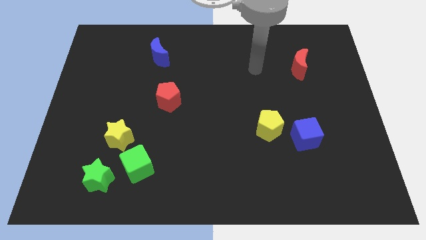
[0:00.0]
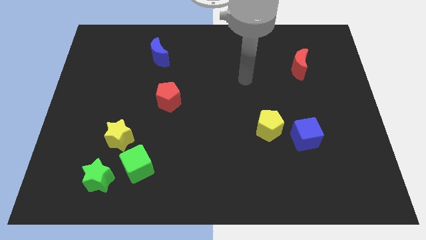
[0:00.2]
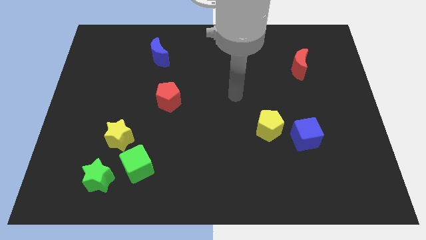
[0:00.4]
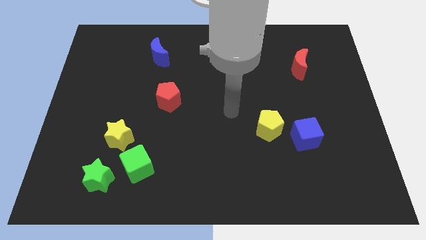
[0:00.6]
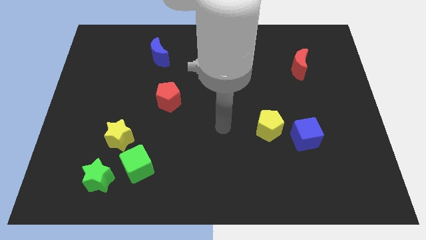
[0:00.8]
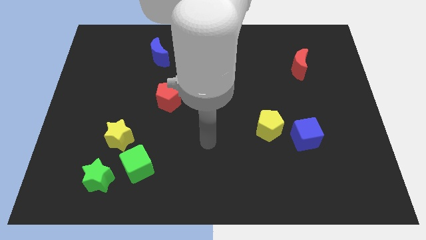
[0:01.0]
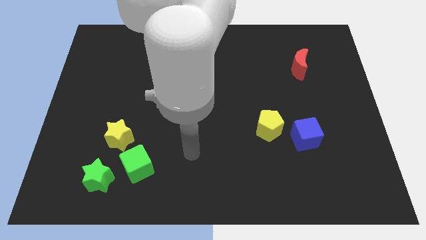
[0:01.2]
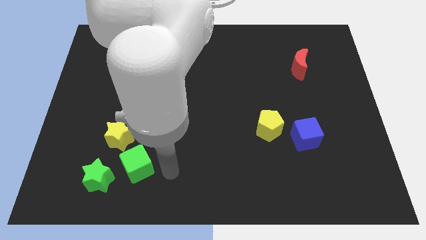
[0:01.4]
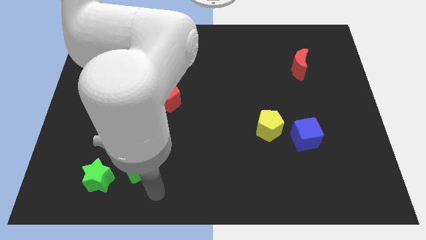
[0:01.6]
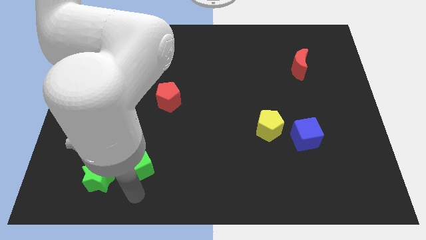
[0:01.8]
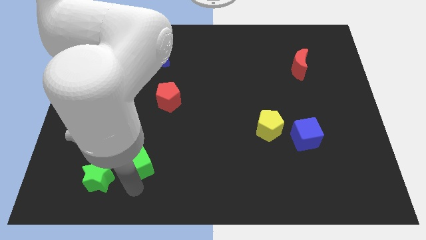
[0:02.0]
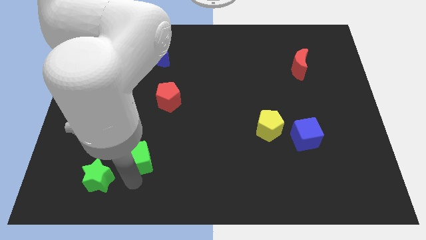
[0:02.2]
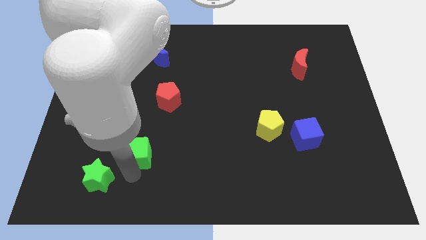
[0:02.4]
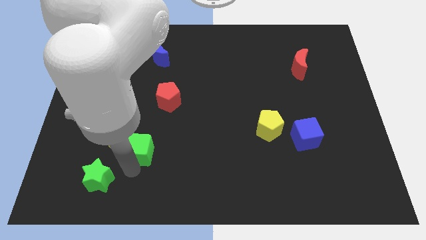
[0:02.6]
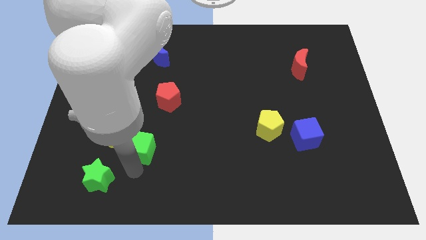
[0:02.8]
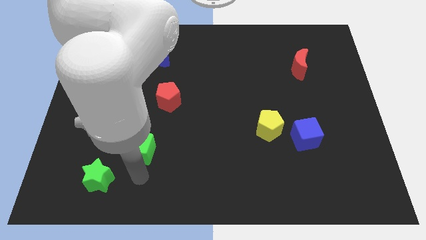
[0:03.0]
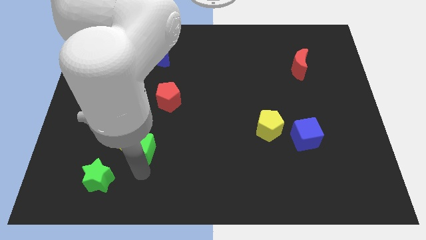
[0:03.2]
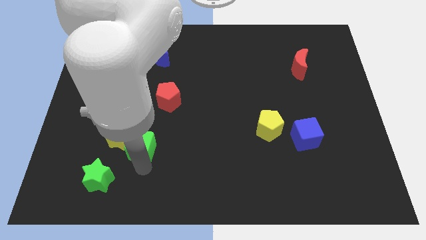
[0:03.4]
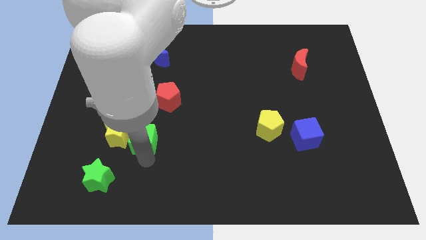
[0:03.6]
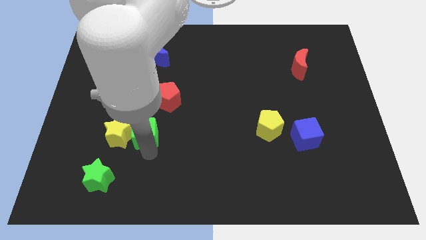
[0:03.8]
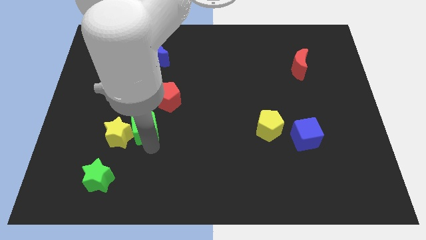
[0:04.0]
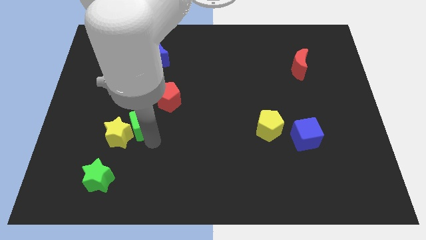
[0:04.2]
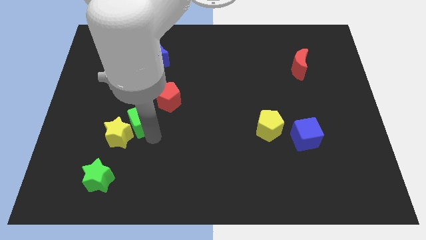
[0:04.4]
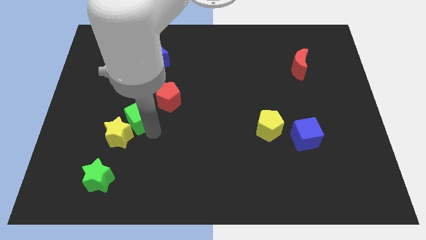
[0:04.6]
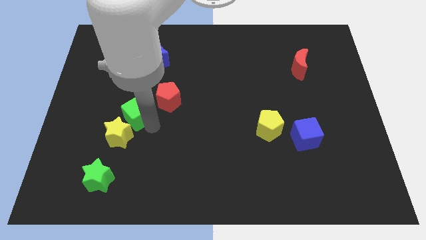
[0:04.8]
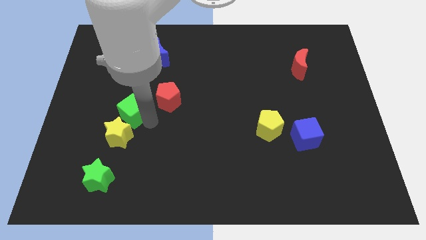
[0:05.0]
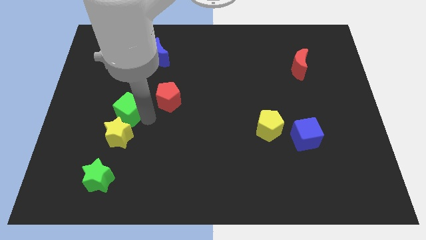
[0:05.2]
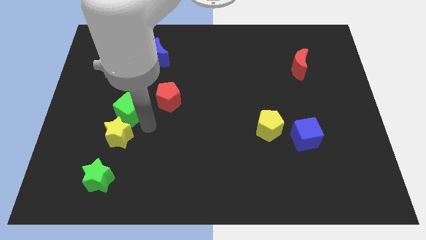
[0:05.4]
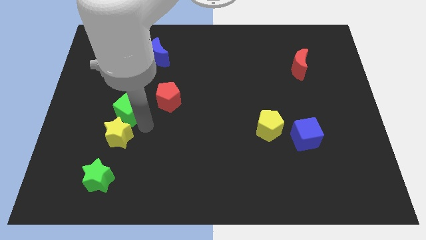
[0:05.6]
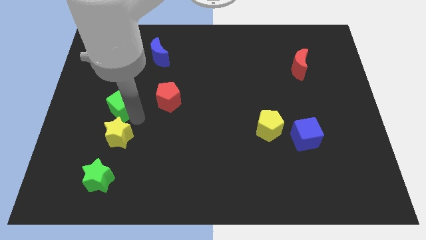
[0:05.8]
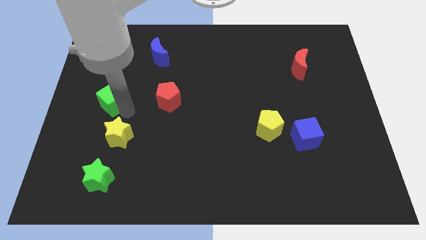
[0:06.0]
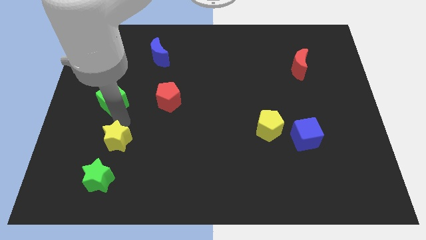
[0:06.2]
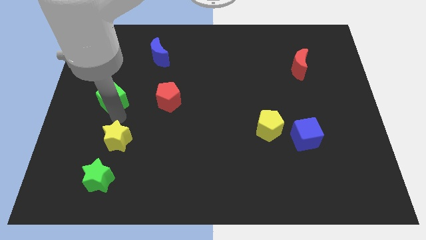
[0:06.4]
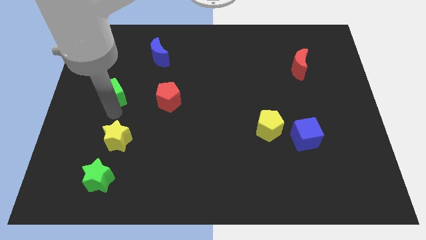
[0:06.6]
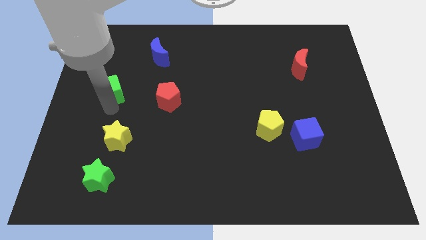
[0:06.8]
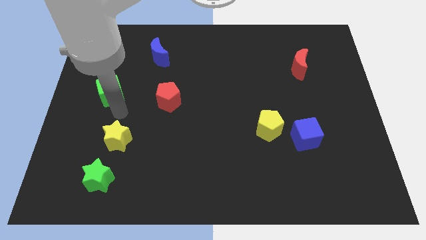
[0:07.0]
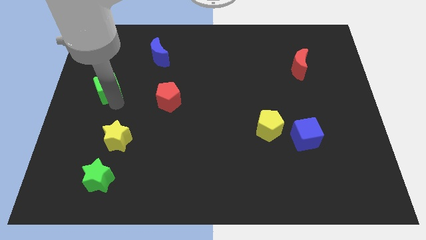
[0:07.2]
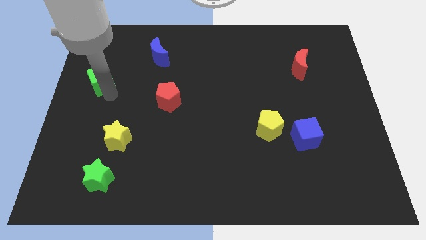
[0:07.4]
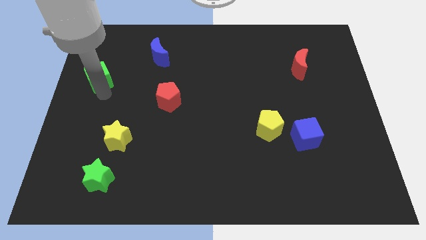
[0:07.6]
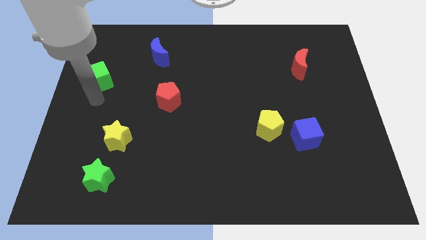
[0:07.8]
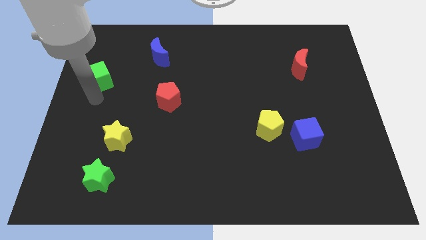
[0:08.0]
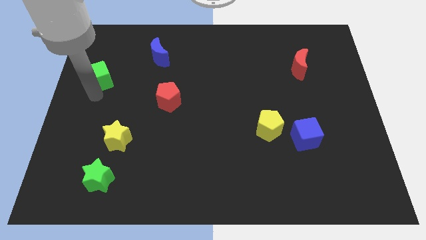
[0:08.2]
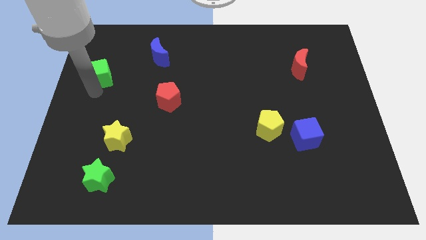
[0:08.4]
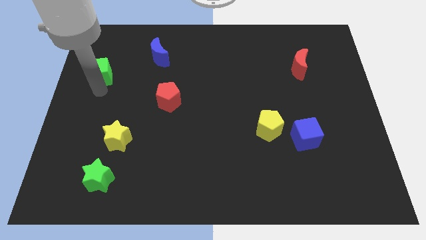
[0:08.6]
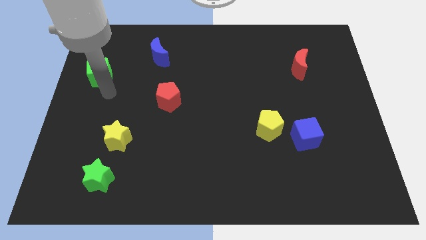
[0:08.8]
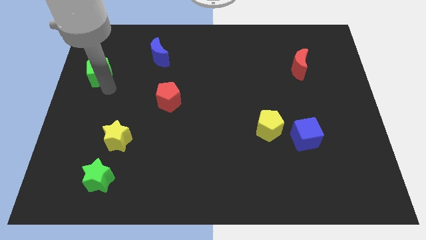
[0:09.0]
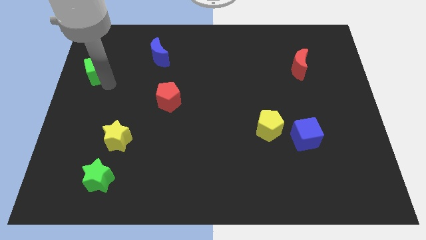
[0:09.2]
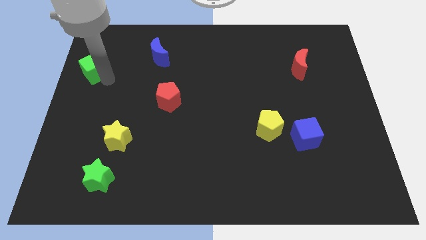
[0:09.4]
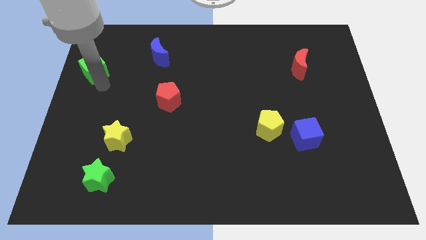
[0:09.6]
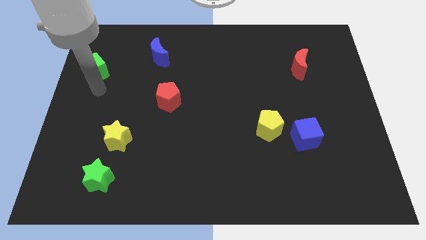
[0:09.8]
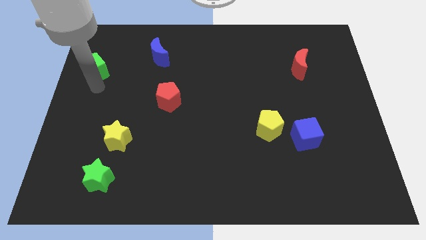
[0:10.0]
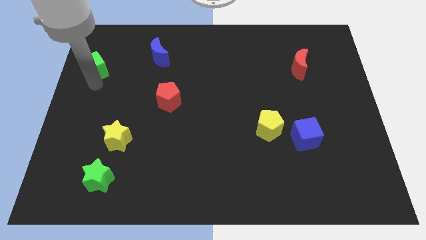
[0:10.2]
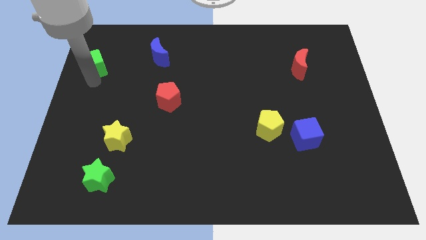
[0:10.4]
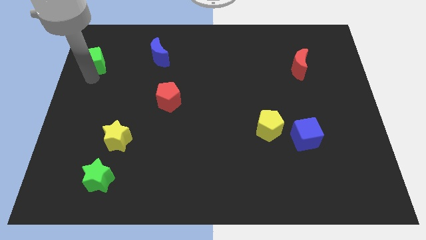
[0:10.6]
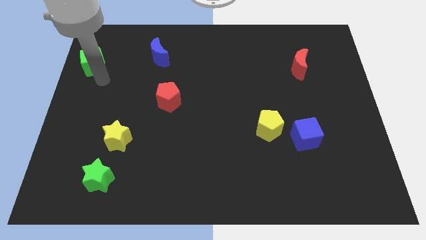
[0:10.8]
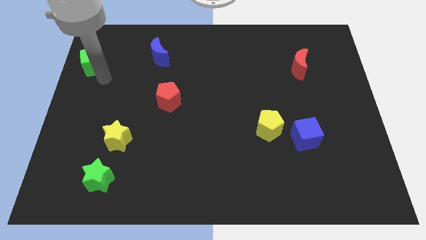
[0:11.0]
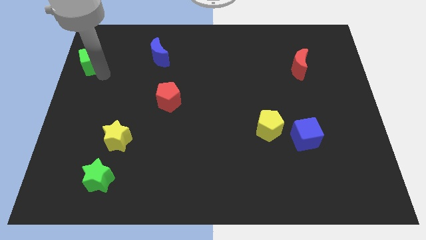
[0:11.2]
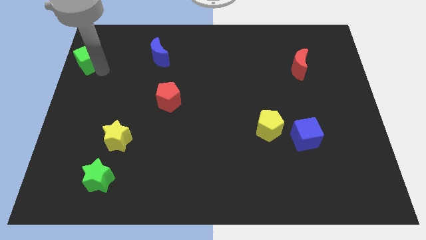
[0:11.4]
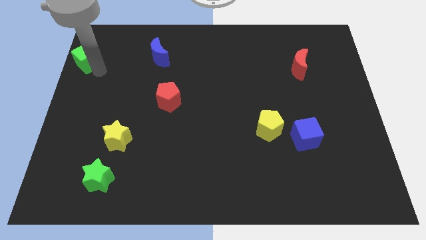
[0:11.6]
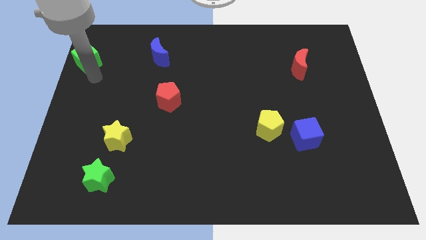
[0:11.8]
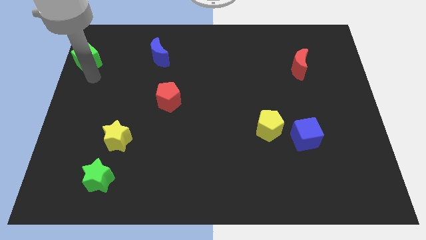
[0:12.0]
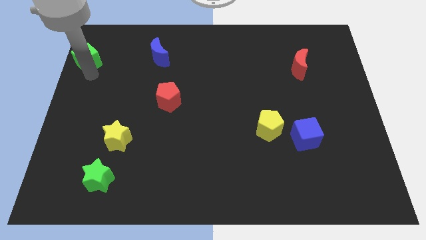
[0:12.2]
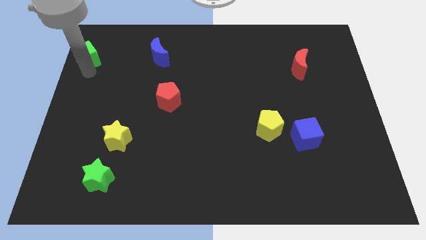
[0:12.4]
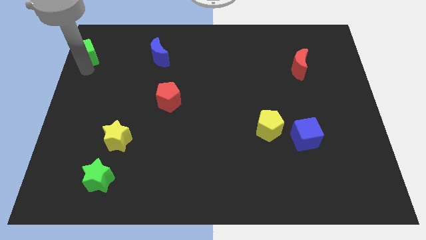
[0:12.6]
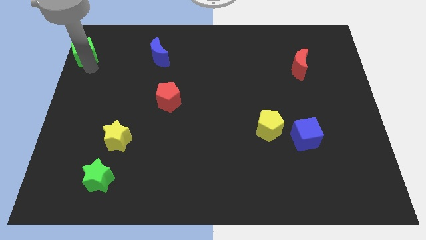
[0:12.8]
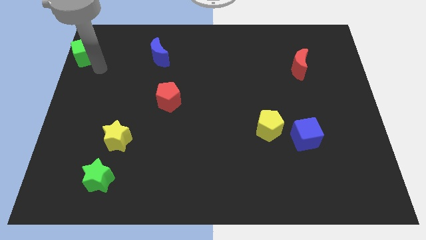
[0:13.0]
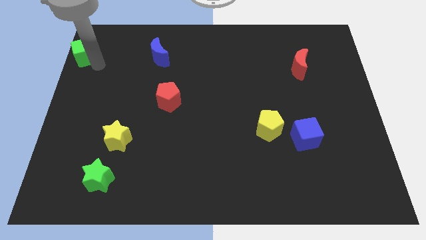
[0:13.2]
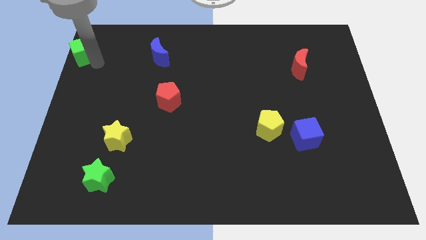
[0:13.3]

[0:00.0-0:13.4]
slide the green cube to the top left
